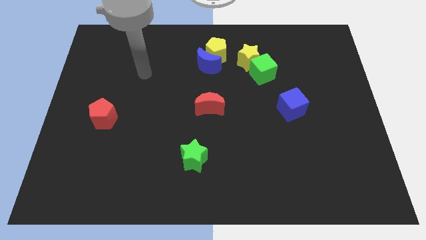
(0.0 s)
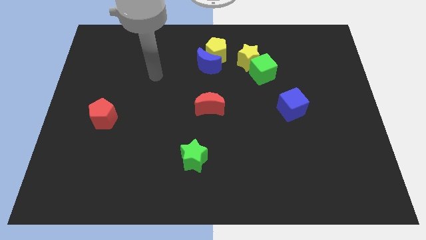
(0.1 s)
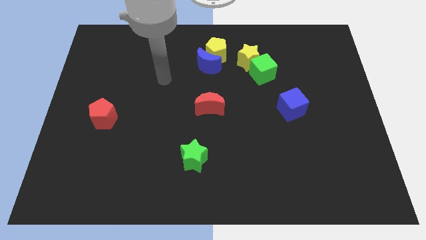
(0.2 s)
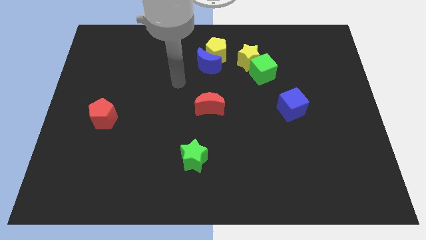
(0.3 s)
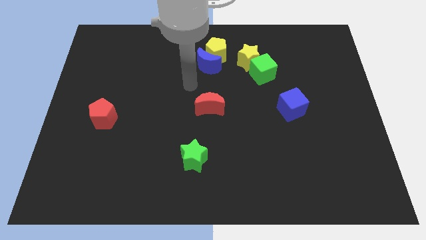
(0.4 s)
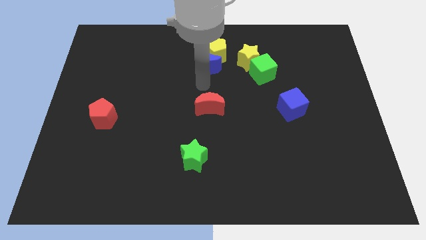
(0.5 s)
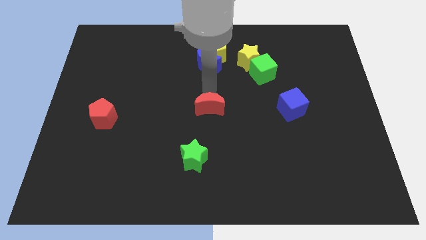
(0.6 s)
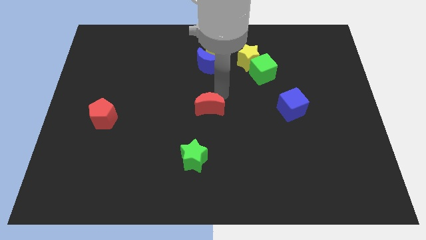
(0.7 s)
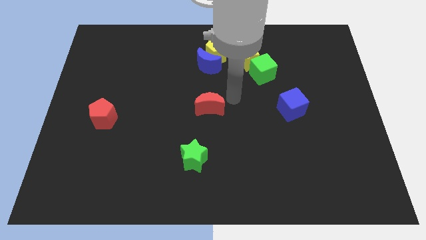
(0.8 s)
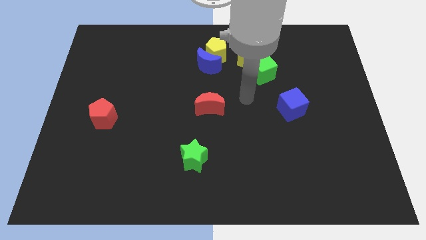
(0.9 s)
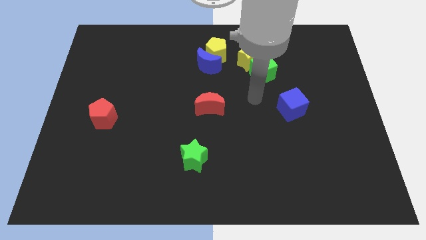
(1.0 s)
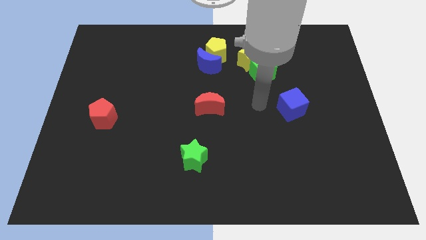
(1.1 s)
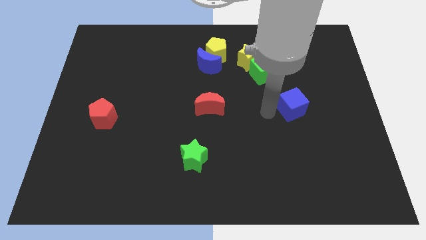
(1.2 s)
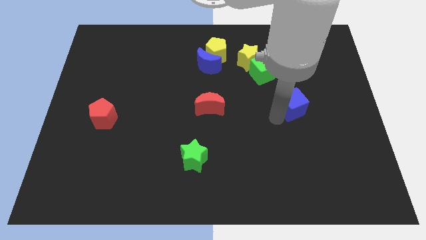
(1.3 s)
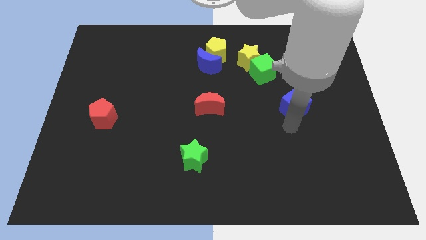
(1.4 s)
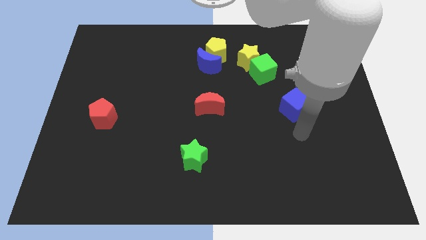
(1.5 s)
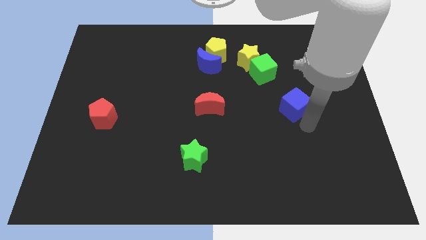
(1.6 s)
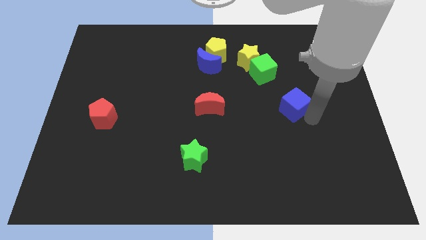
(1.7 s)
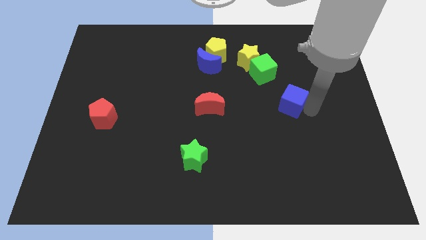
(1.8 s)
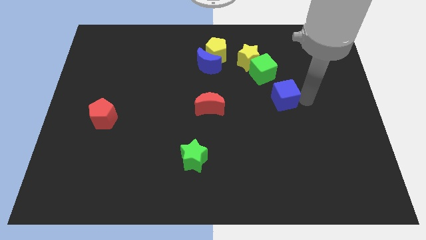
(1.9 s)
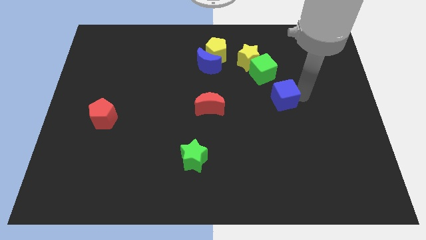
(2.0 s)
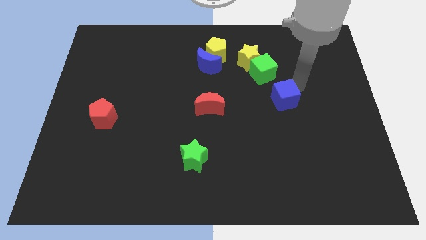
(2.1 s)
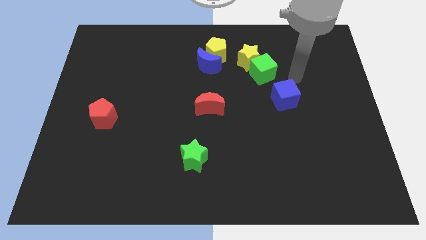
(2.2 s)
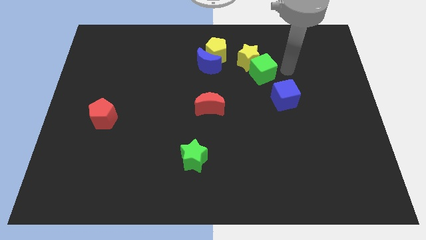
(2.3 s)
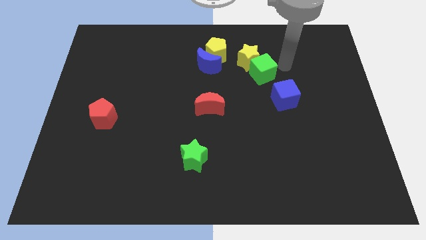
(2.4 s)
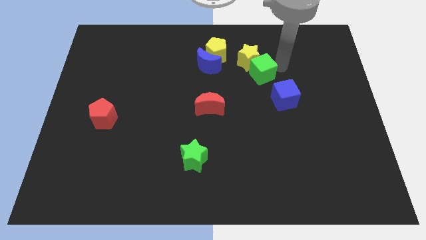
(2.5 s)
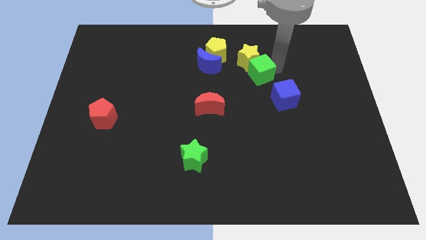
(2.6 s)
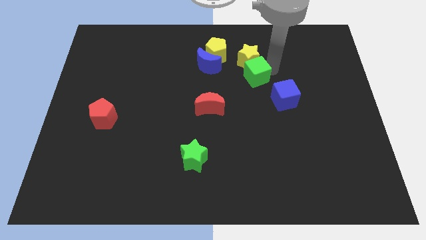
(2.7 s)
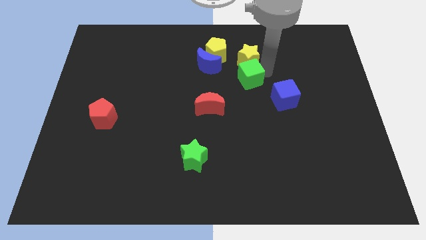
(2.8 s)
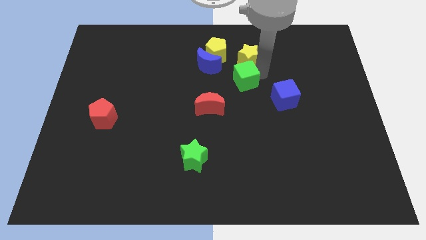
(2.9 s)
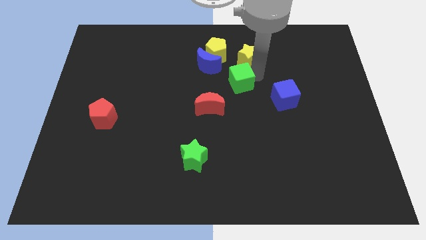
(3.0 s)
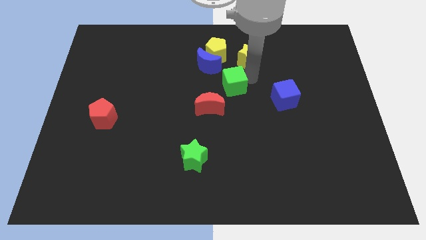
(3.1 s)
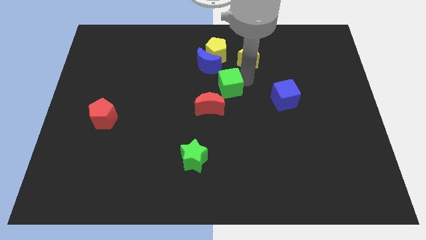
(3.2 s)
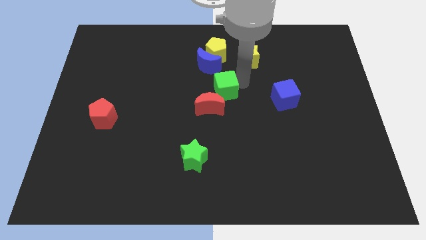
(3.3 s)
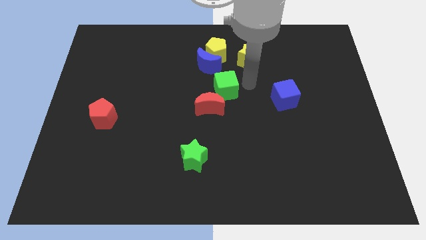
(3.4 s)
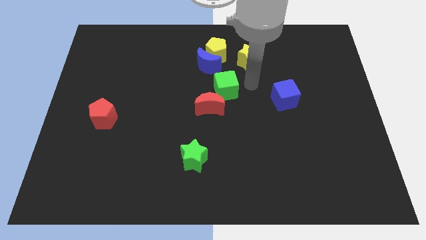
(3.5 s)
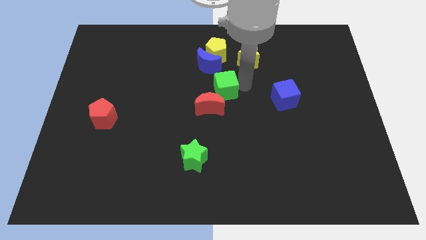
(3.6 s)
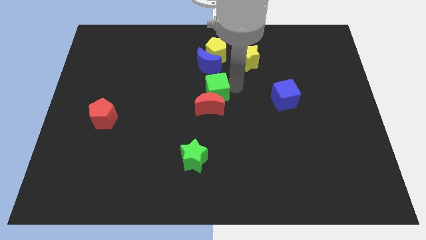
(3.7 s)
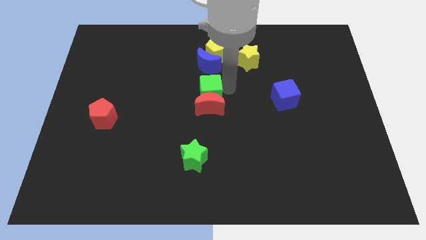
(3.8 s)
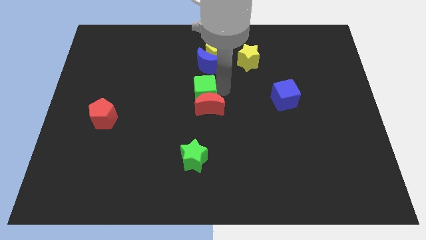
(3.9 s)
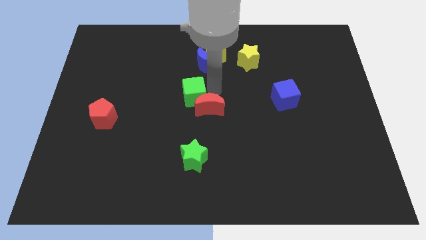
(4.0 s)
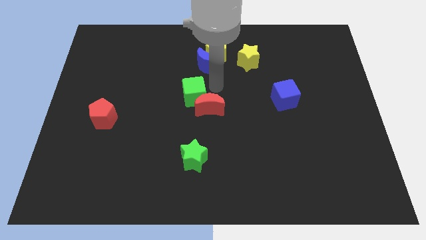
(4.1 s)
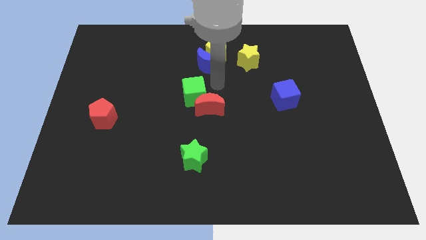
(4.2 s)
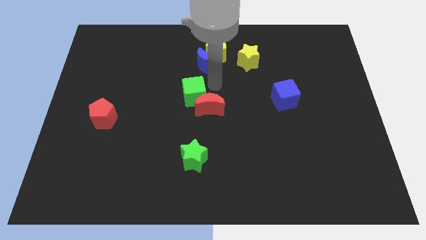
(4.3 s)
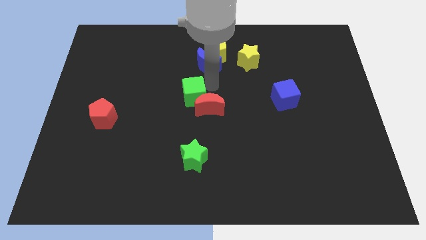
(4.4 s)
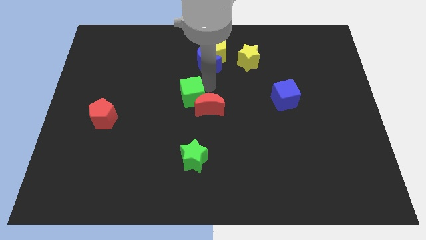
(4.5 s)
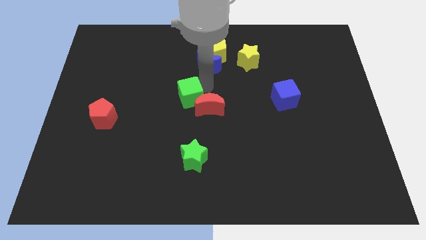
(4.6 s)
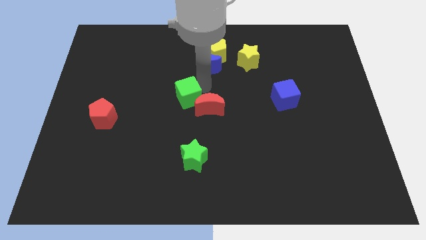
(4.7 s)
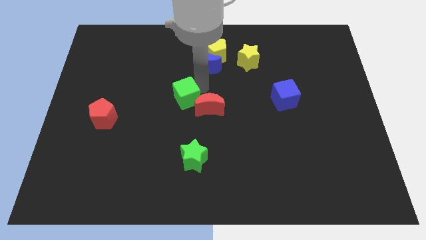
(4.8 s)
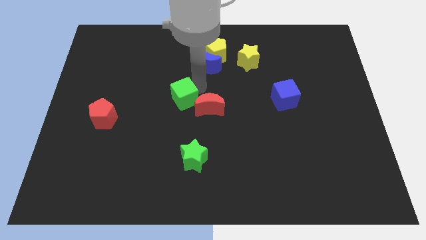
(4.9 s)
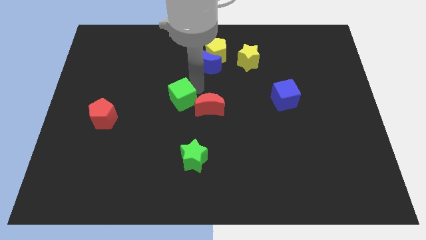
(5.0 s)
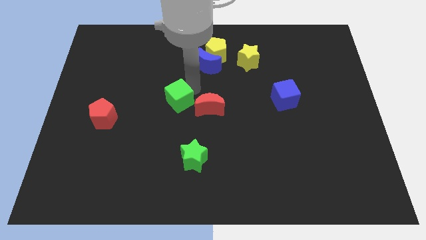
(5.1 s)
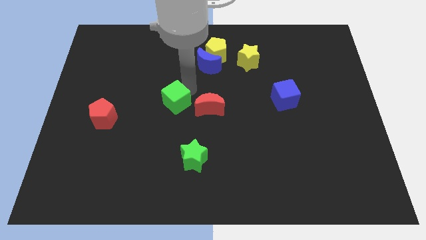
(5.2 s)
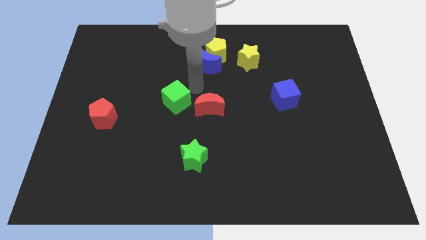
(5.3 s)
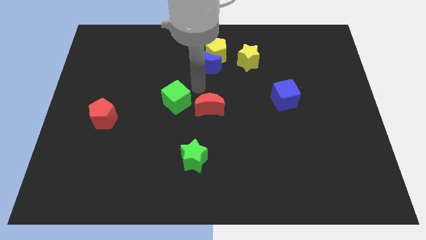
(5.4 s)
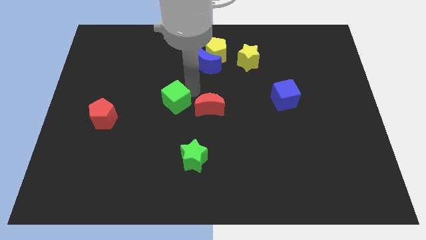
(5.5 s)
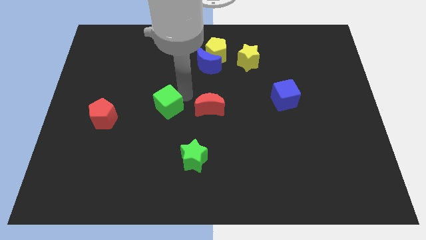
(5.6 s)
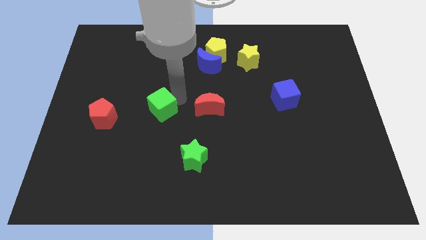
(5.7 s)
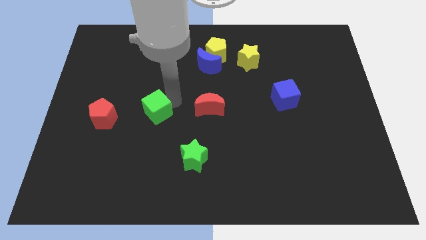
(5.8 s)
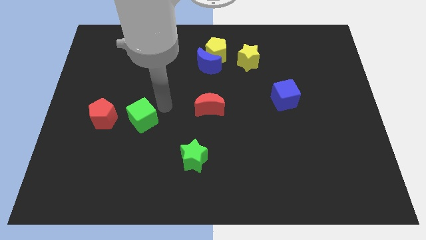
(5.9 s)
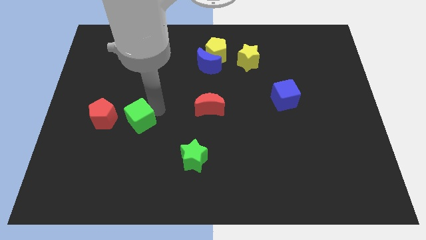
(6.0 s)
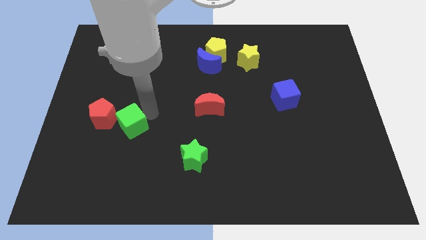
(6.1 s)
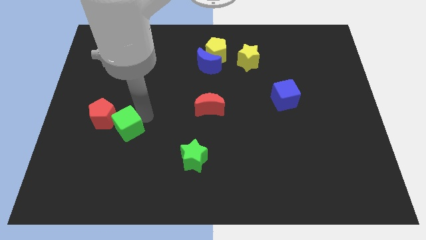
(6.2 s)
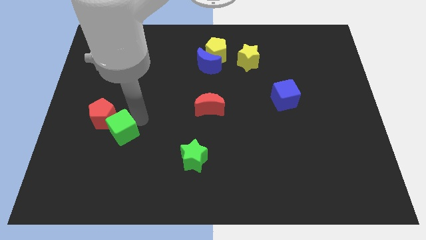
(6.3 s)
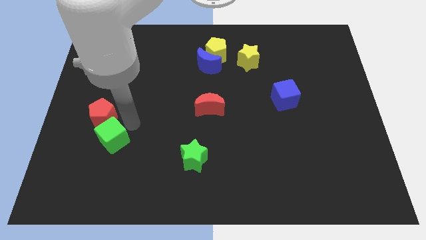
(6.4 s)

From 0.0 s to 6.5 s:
push the green cube to the bottom of the red pentagon
